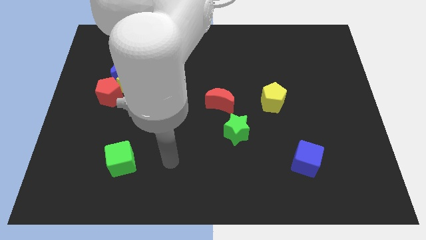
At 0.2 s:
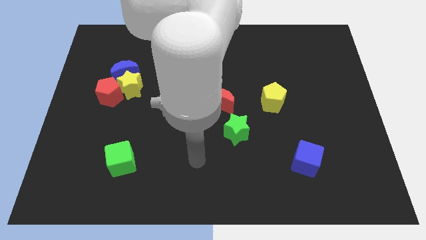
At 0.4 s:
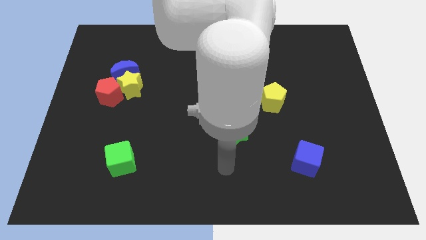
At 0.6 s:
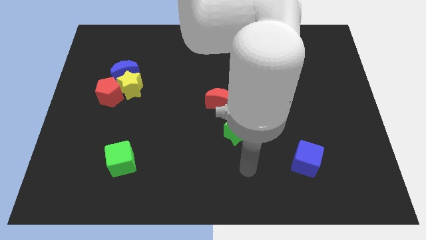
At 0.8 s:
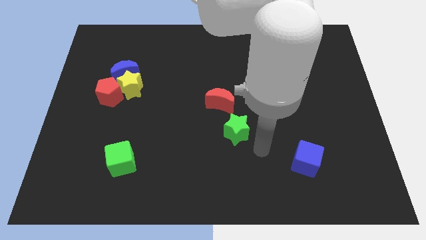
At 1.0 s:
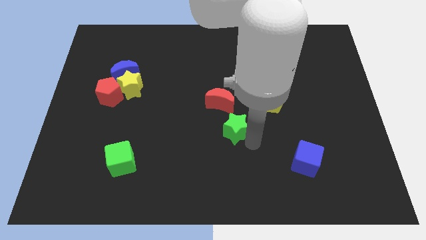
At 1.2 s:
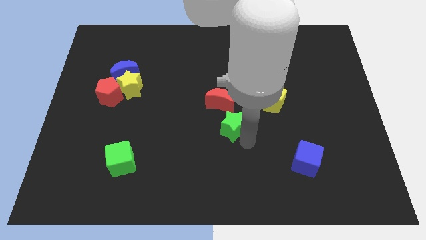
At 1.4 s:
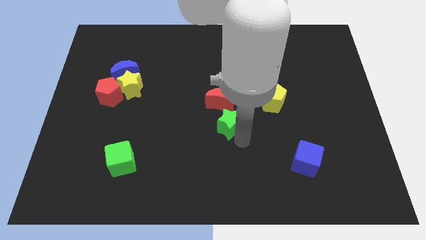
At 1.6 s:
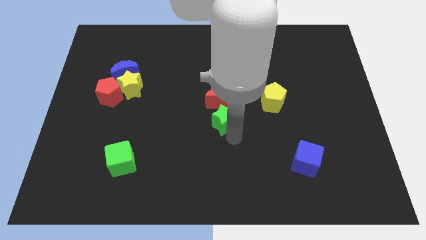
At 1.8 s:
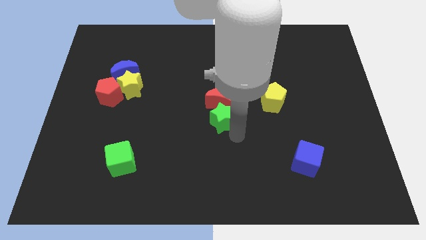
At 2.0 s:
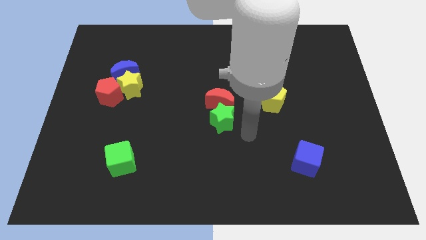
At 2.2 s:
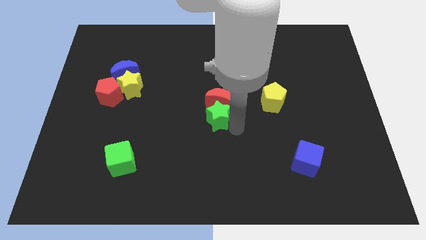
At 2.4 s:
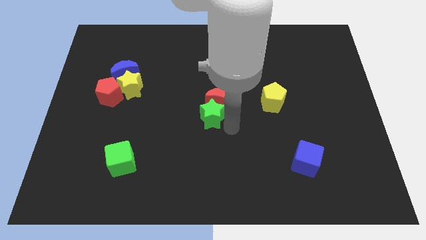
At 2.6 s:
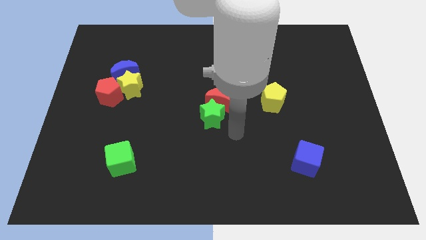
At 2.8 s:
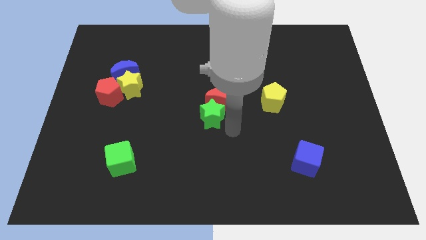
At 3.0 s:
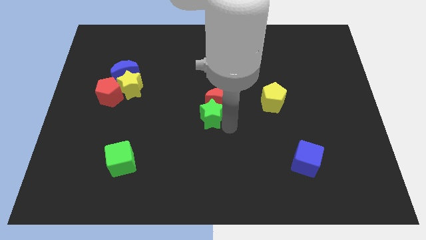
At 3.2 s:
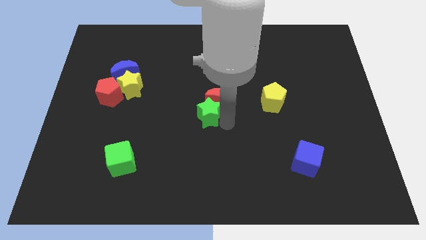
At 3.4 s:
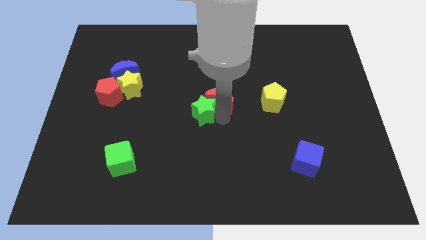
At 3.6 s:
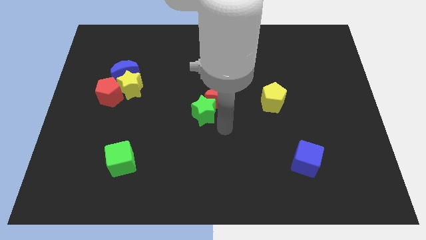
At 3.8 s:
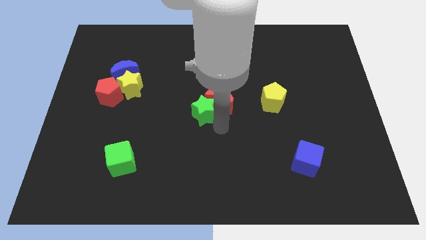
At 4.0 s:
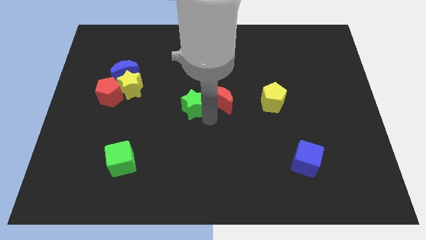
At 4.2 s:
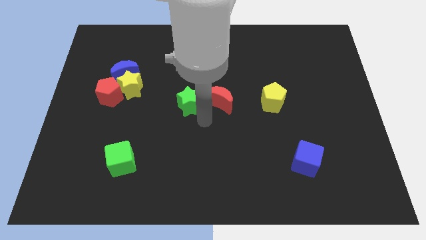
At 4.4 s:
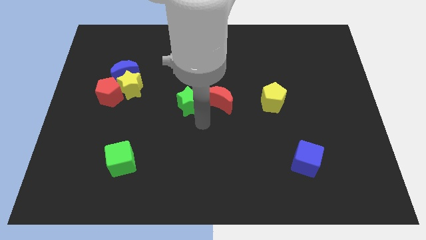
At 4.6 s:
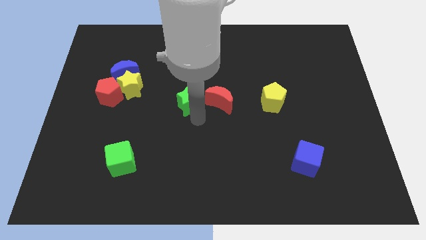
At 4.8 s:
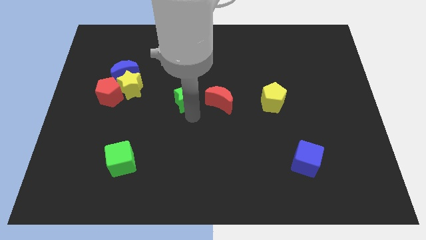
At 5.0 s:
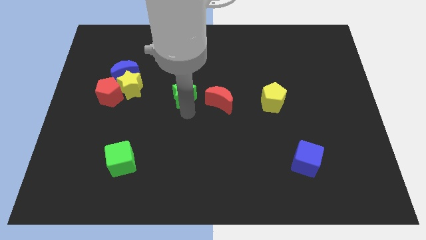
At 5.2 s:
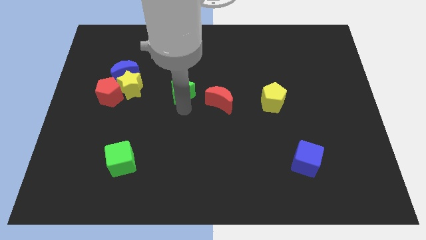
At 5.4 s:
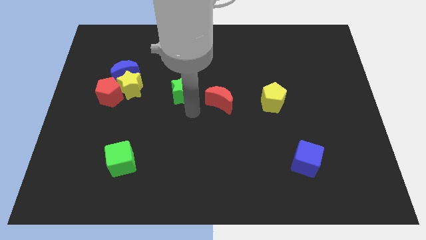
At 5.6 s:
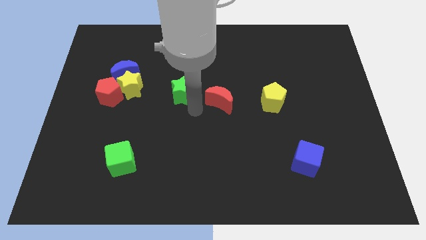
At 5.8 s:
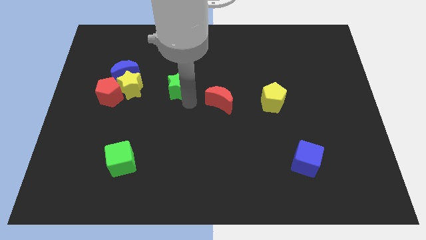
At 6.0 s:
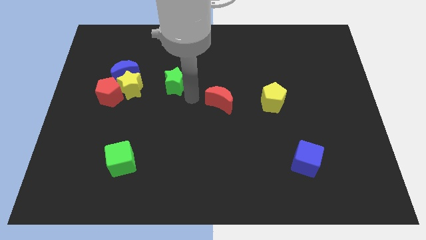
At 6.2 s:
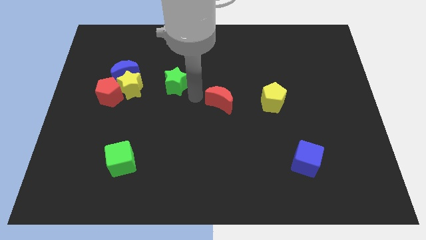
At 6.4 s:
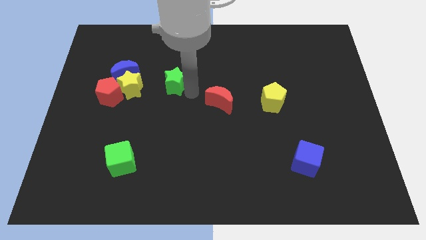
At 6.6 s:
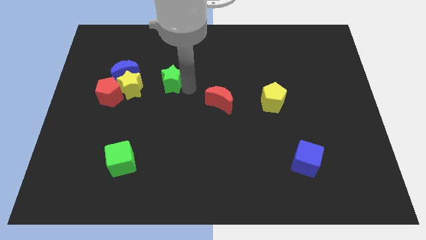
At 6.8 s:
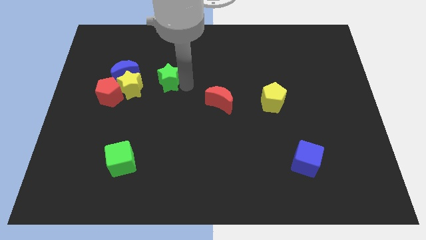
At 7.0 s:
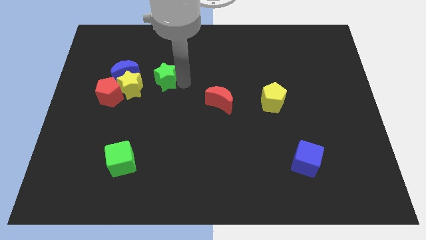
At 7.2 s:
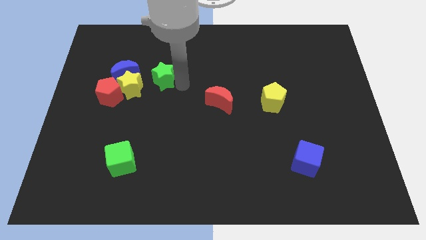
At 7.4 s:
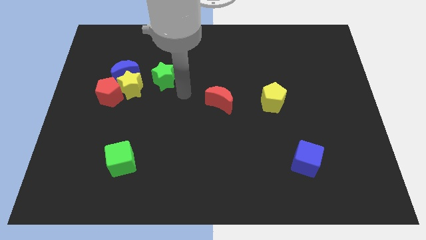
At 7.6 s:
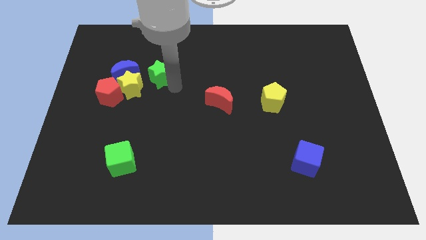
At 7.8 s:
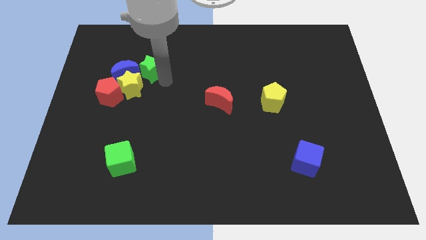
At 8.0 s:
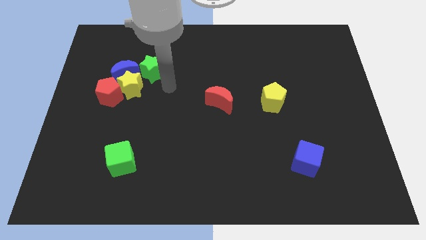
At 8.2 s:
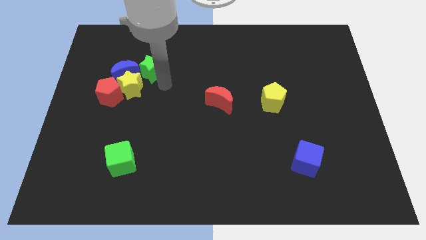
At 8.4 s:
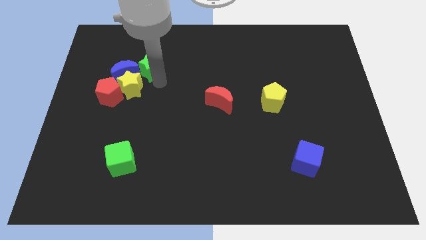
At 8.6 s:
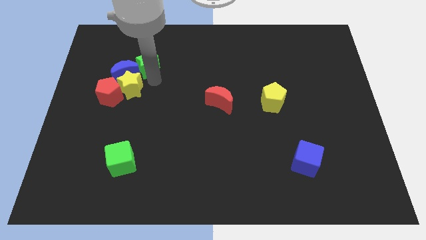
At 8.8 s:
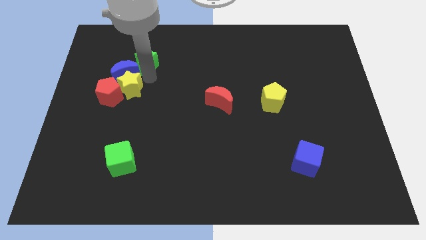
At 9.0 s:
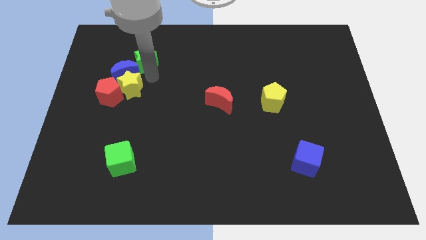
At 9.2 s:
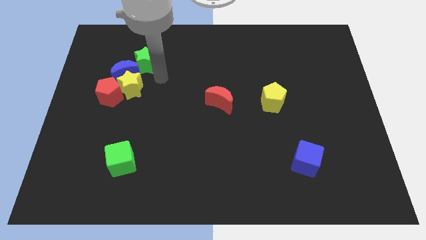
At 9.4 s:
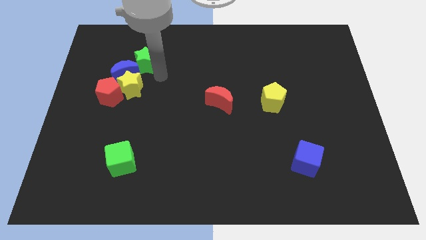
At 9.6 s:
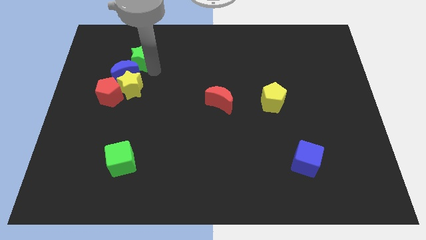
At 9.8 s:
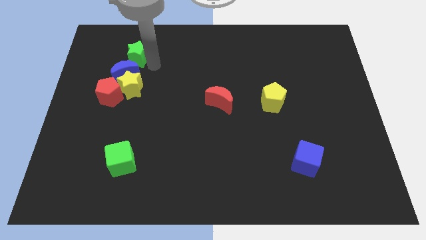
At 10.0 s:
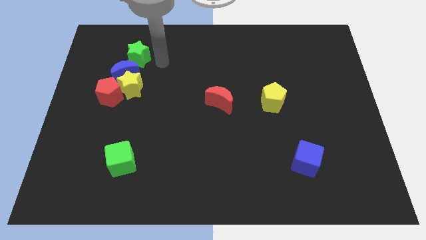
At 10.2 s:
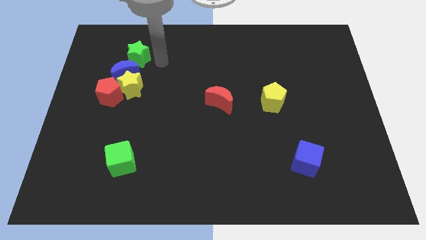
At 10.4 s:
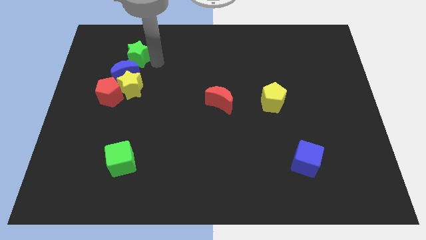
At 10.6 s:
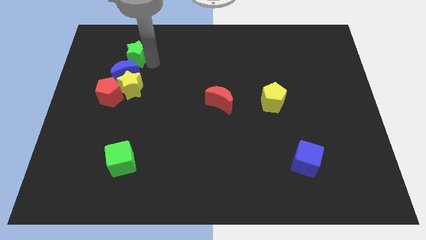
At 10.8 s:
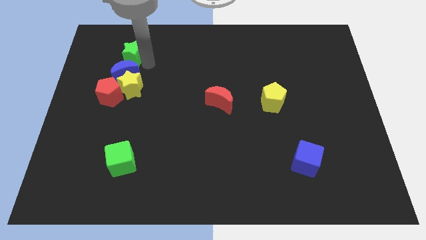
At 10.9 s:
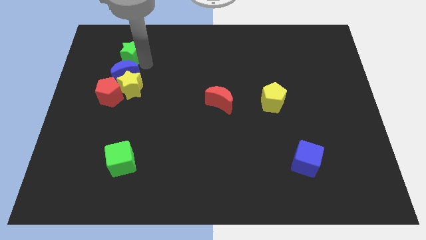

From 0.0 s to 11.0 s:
put the green star to the top left side of the blue moon

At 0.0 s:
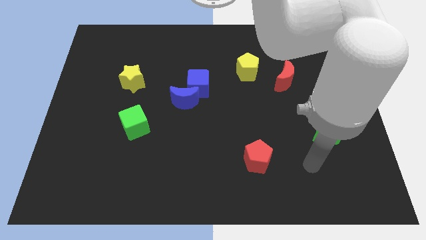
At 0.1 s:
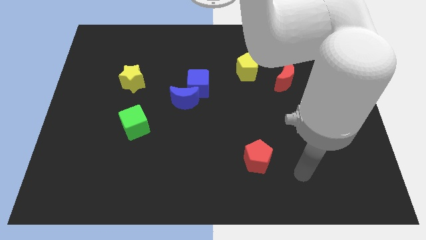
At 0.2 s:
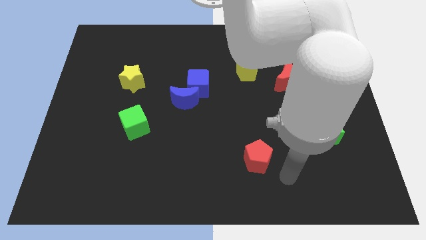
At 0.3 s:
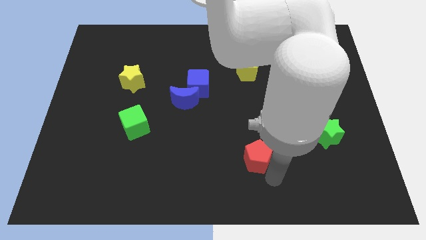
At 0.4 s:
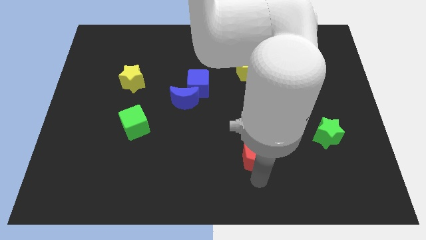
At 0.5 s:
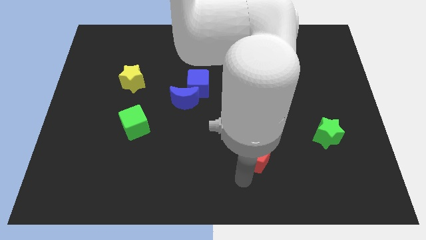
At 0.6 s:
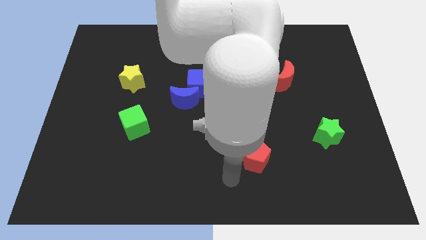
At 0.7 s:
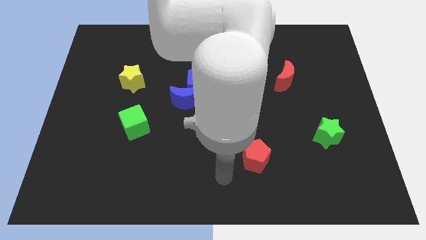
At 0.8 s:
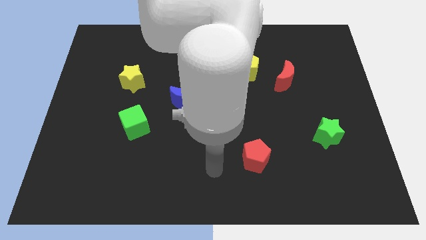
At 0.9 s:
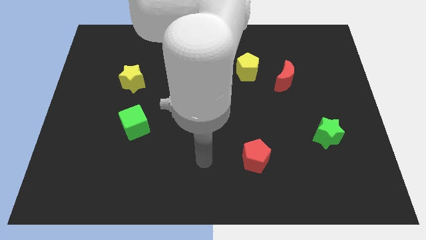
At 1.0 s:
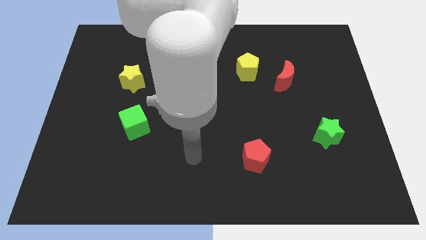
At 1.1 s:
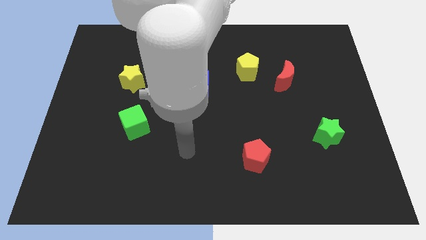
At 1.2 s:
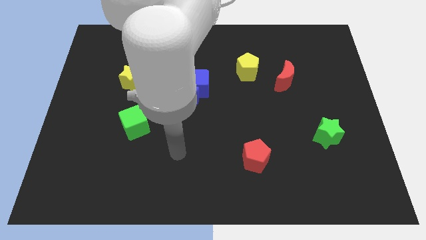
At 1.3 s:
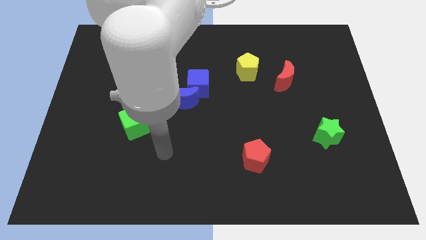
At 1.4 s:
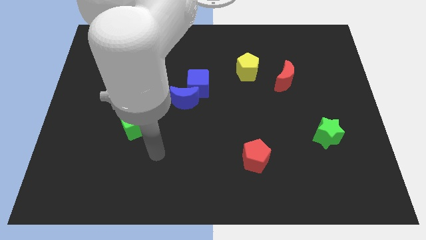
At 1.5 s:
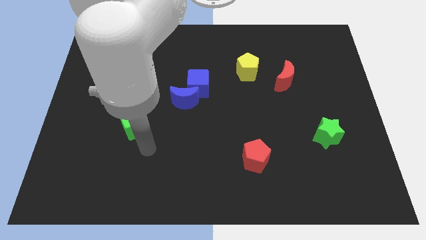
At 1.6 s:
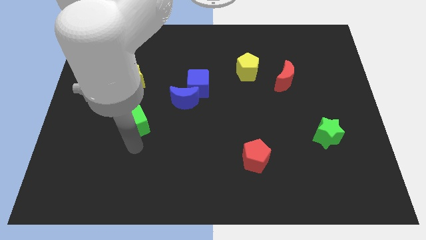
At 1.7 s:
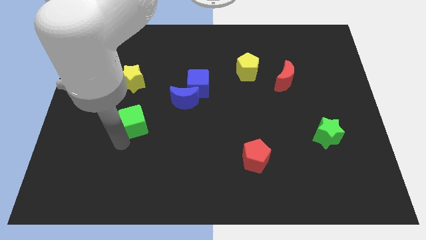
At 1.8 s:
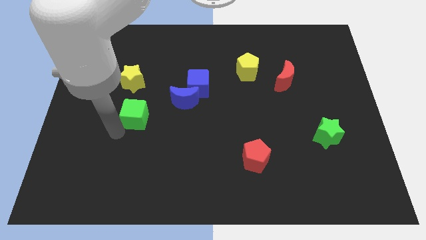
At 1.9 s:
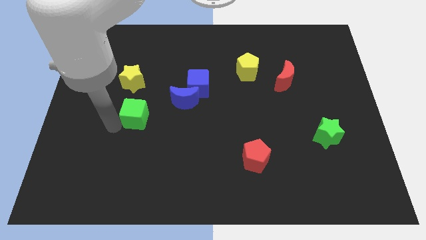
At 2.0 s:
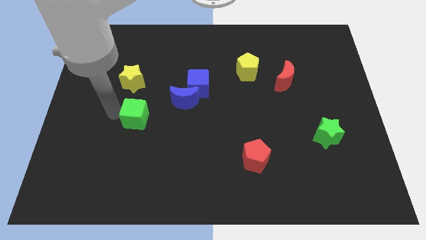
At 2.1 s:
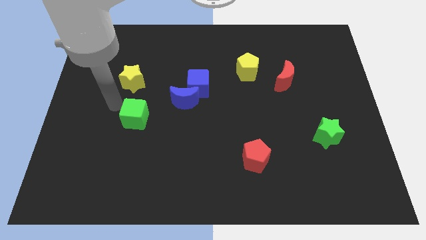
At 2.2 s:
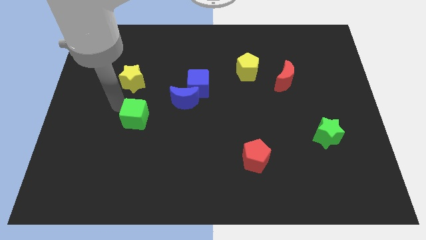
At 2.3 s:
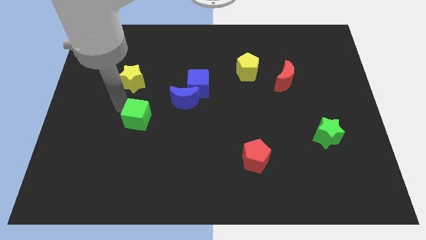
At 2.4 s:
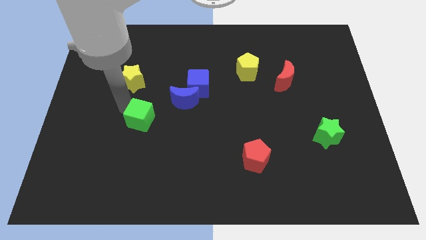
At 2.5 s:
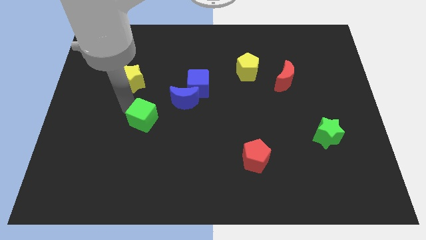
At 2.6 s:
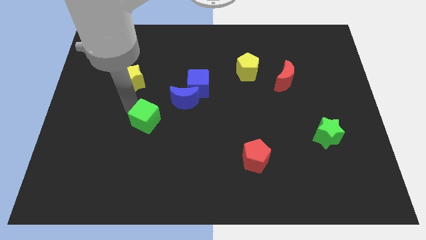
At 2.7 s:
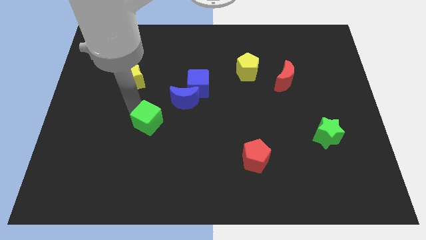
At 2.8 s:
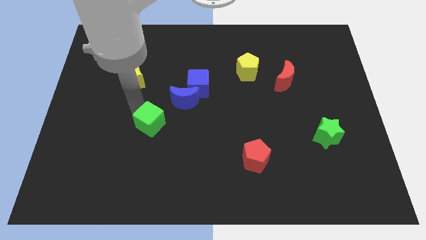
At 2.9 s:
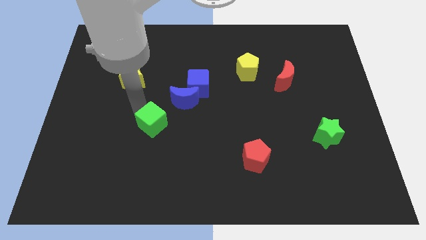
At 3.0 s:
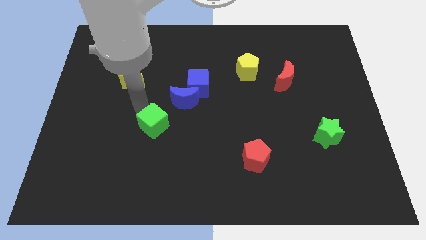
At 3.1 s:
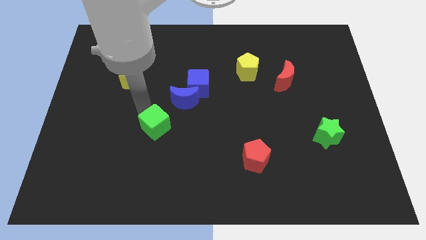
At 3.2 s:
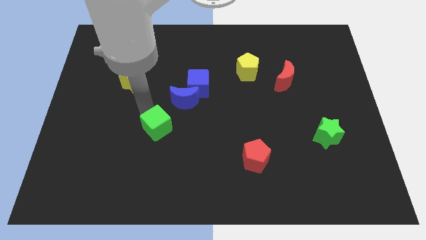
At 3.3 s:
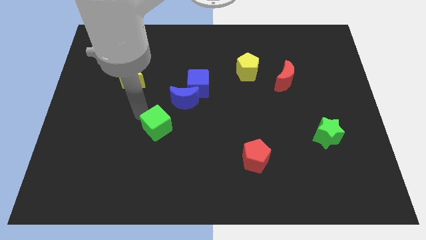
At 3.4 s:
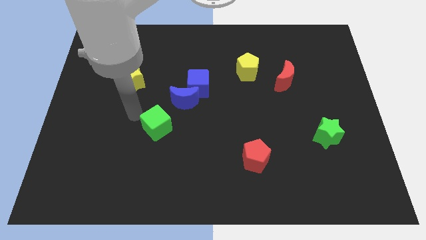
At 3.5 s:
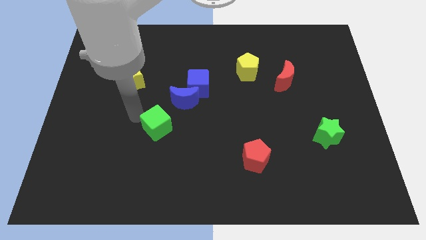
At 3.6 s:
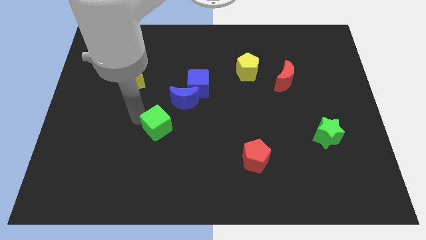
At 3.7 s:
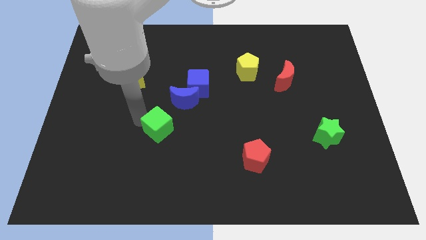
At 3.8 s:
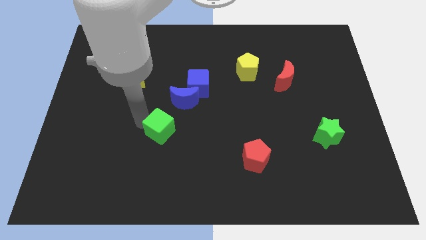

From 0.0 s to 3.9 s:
push the green cube to the bottom side of the blue moon
